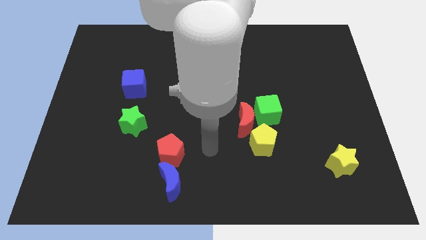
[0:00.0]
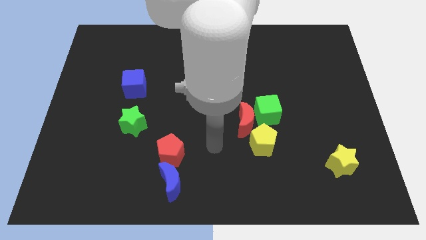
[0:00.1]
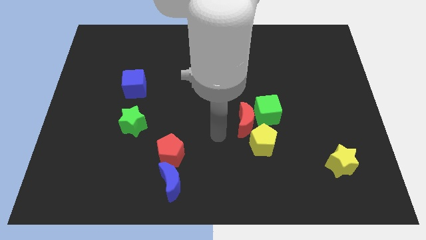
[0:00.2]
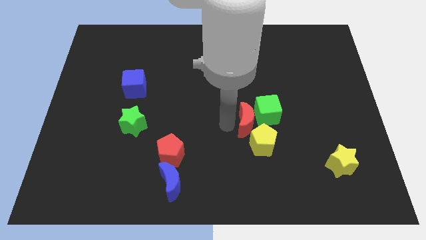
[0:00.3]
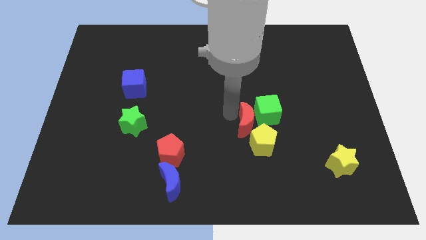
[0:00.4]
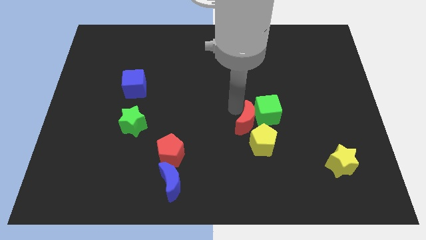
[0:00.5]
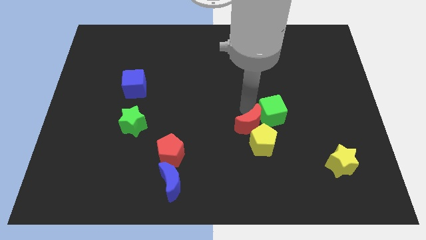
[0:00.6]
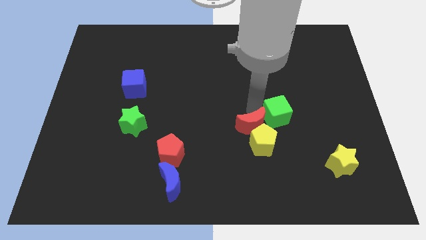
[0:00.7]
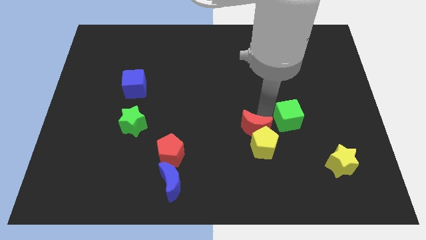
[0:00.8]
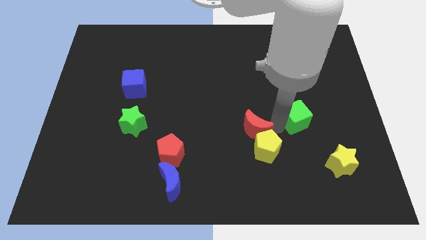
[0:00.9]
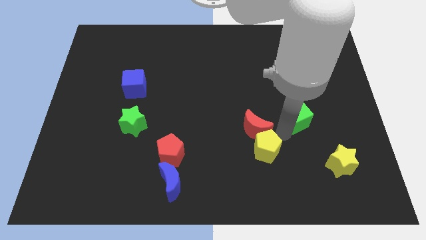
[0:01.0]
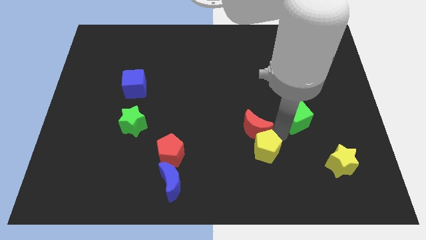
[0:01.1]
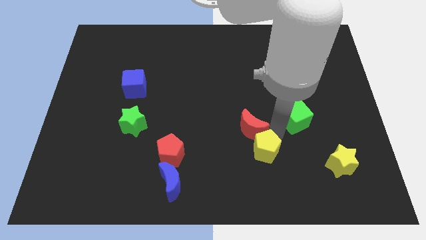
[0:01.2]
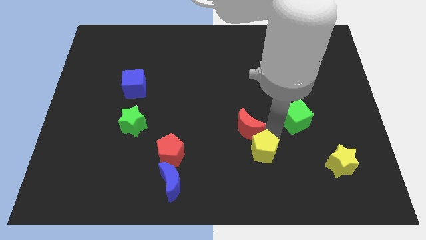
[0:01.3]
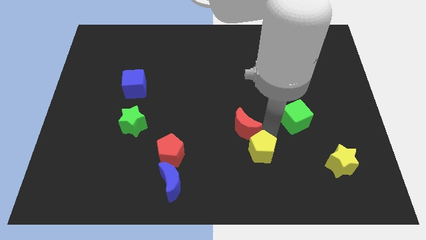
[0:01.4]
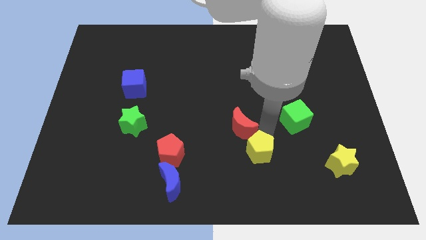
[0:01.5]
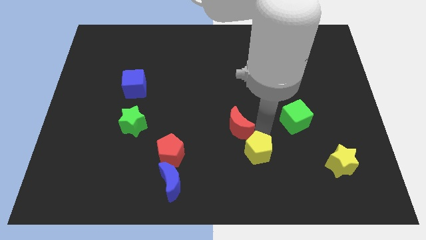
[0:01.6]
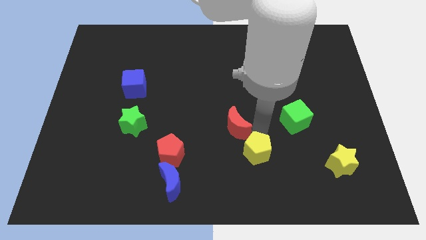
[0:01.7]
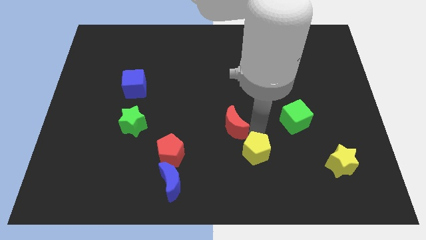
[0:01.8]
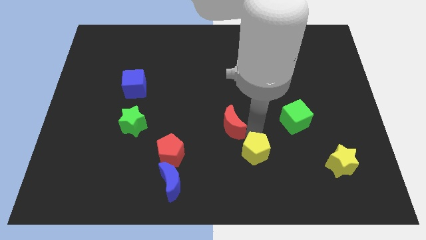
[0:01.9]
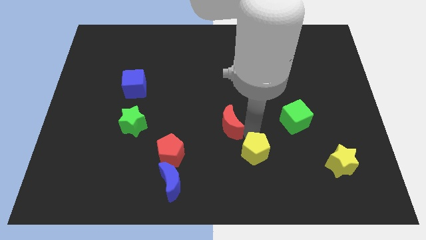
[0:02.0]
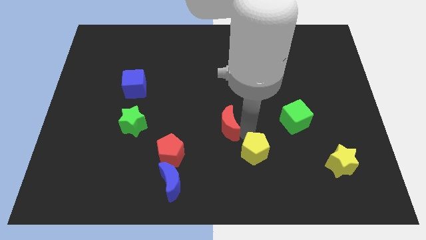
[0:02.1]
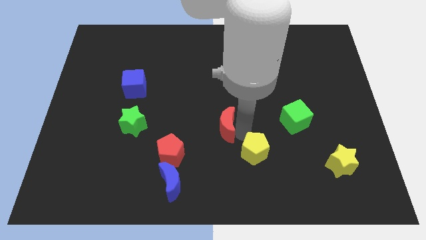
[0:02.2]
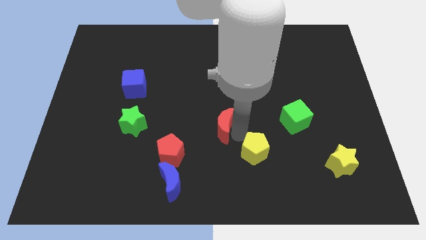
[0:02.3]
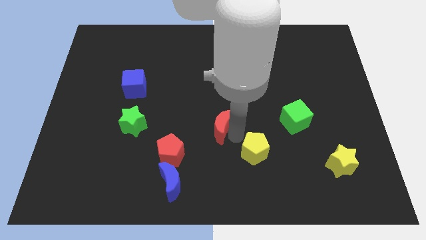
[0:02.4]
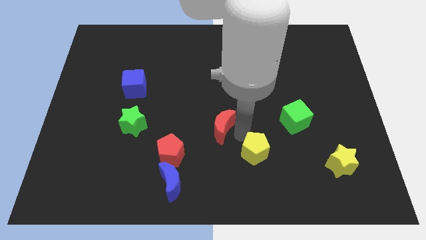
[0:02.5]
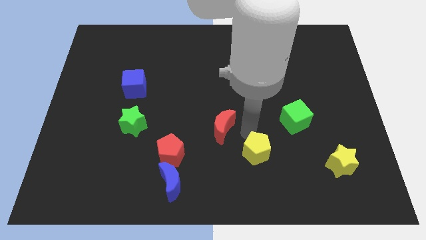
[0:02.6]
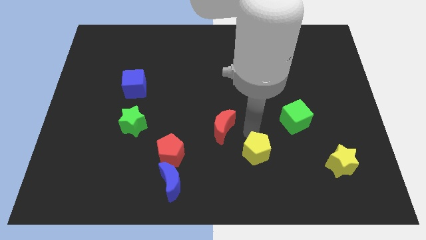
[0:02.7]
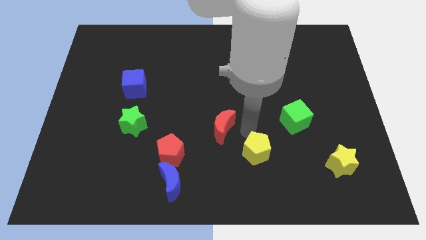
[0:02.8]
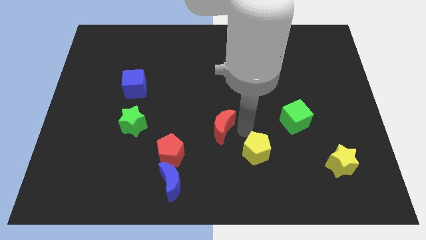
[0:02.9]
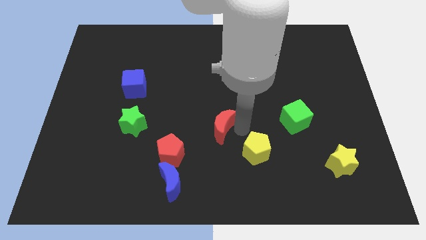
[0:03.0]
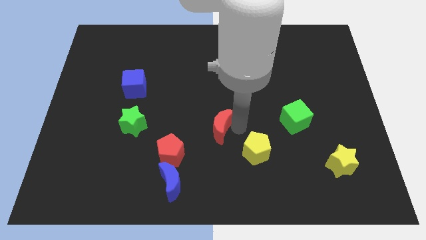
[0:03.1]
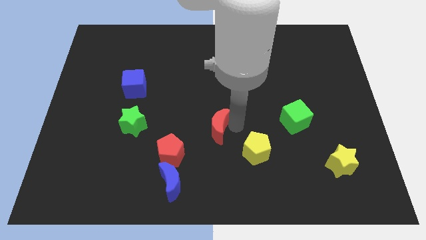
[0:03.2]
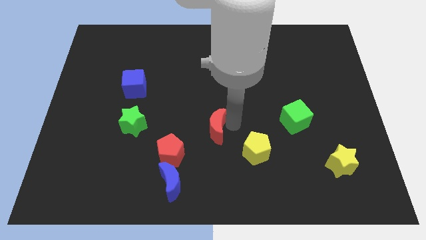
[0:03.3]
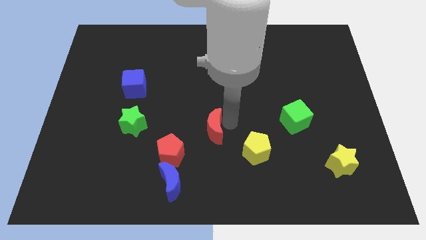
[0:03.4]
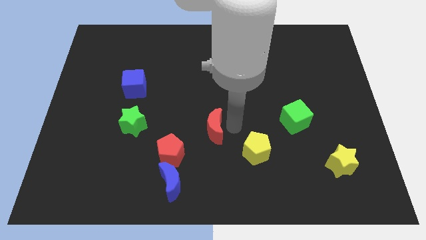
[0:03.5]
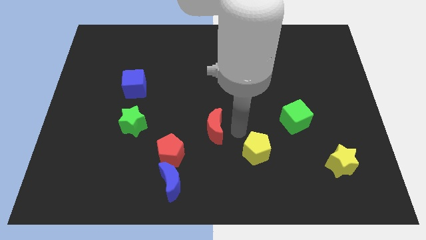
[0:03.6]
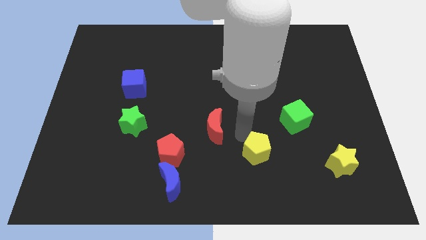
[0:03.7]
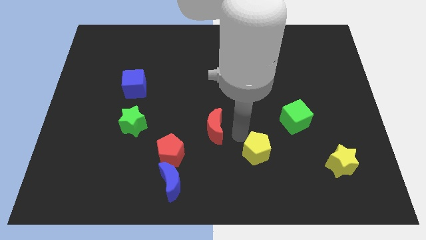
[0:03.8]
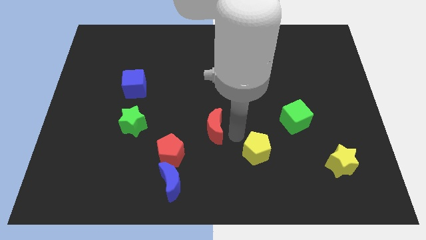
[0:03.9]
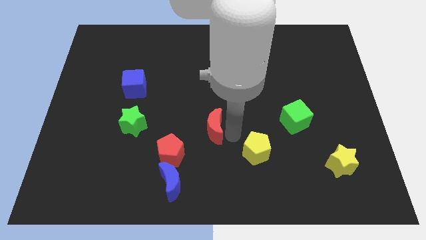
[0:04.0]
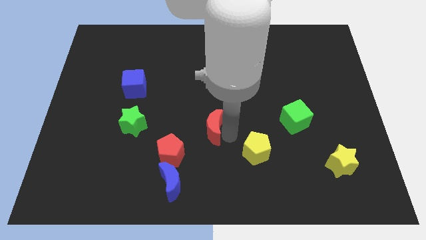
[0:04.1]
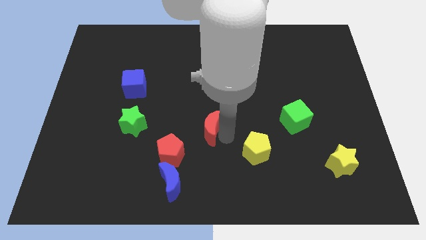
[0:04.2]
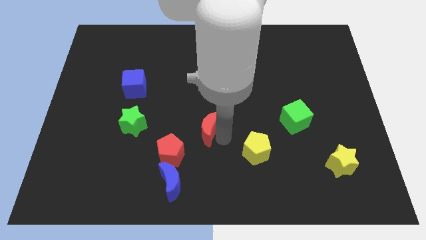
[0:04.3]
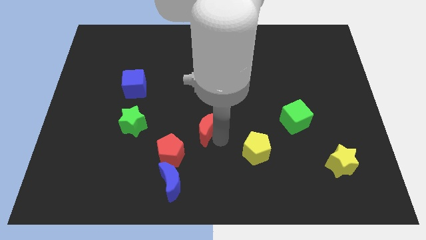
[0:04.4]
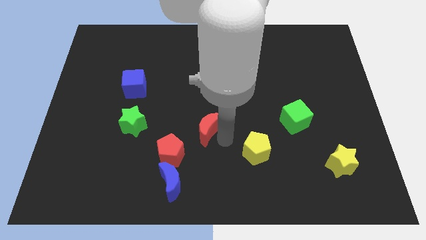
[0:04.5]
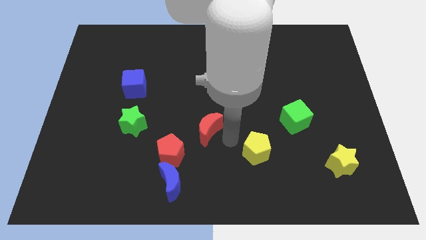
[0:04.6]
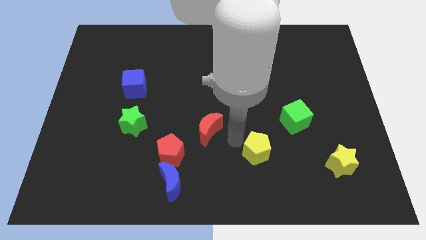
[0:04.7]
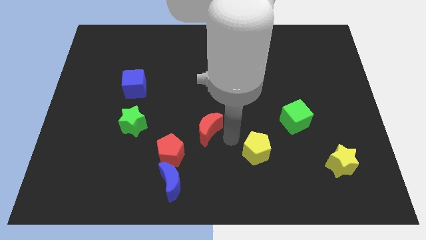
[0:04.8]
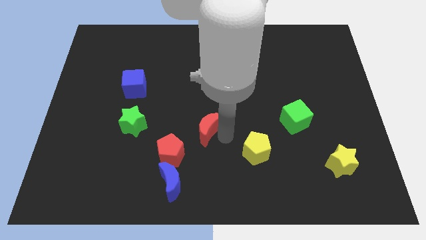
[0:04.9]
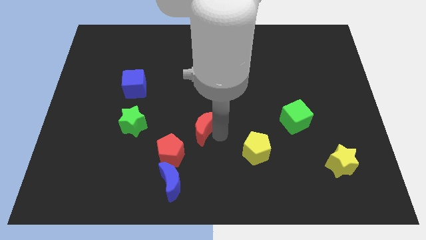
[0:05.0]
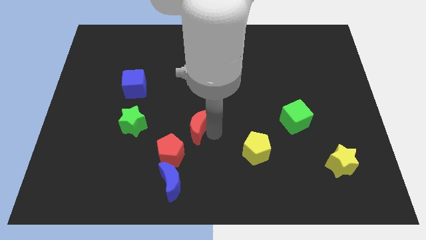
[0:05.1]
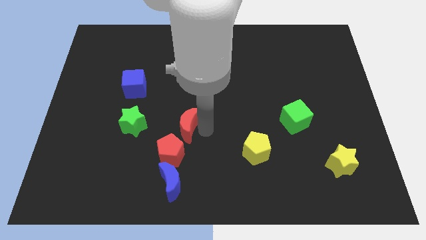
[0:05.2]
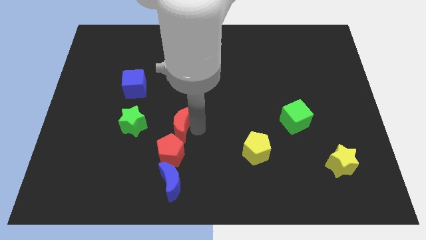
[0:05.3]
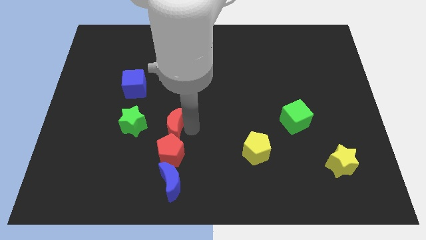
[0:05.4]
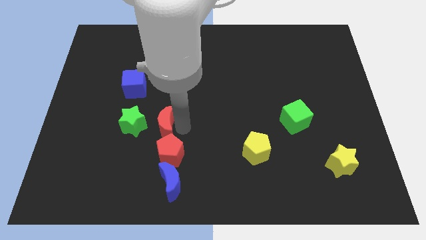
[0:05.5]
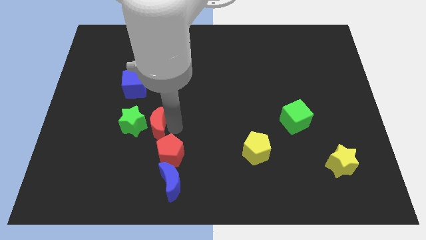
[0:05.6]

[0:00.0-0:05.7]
push the red moon next to the green star

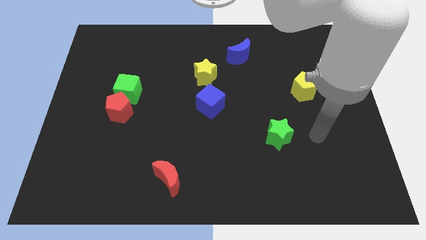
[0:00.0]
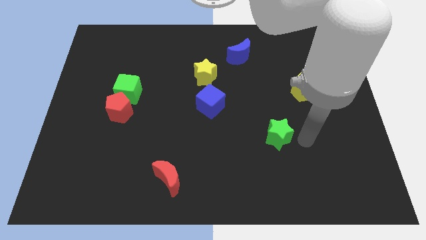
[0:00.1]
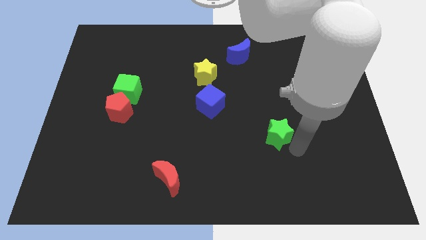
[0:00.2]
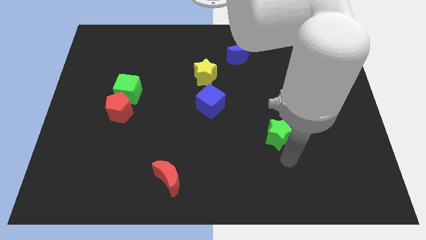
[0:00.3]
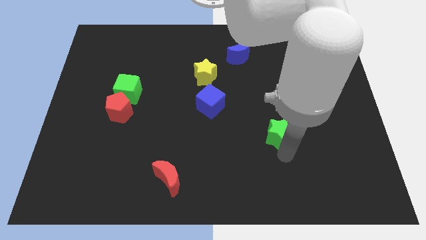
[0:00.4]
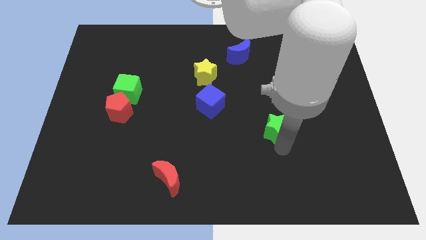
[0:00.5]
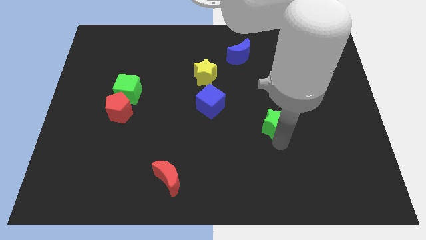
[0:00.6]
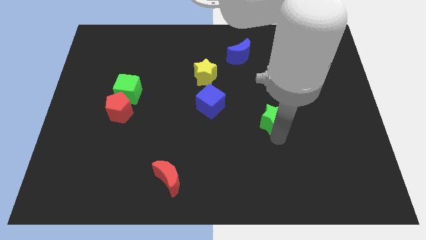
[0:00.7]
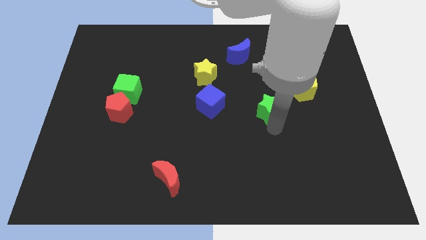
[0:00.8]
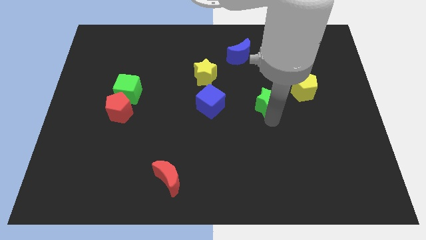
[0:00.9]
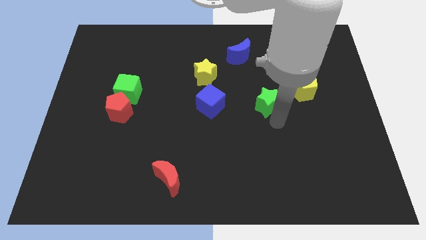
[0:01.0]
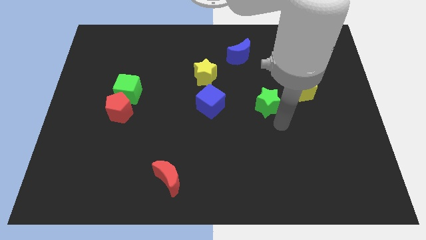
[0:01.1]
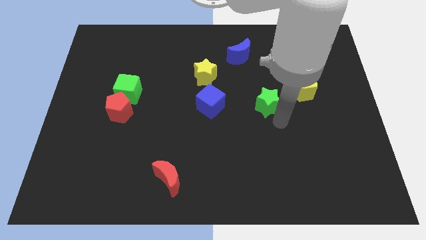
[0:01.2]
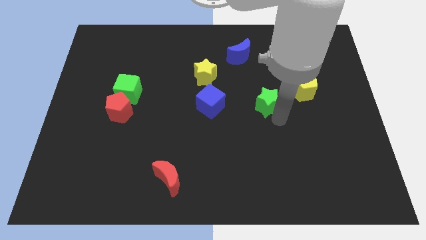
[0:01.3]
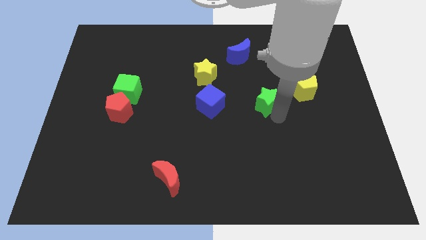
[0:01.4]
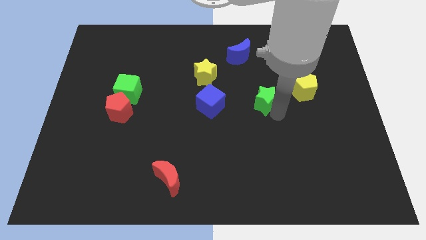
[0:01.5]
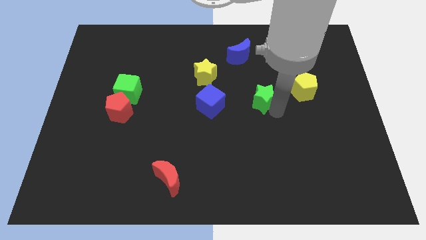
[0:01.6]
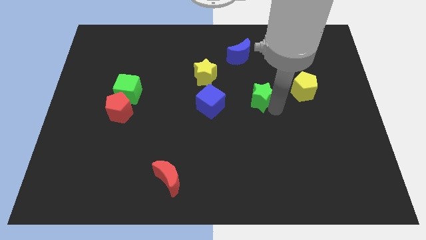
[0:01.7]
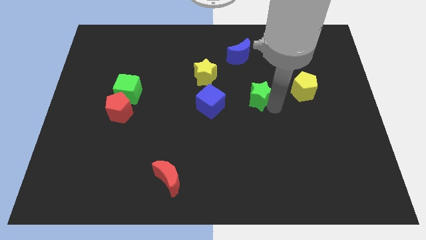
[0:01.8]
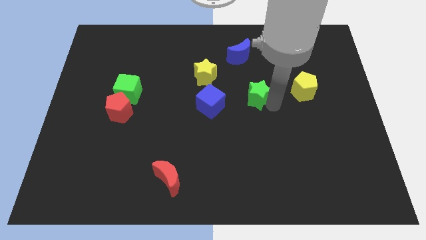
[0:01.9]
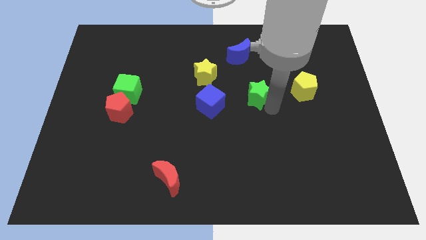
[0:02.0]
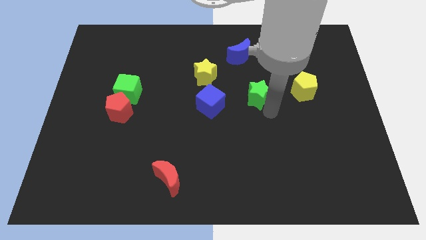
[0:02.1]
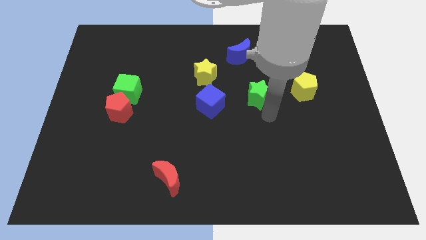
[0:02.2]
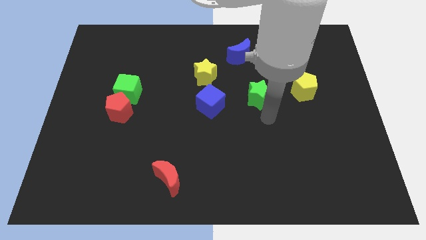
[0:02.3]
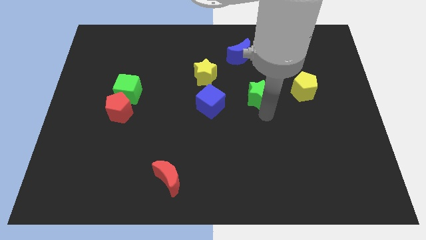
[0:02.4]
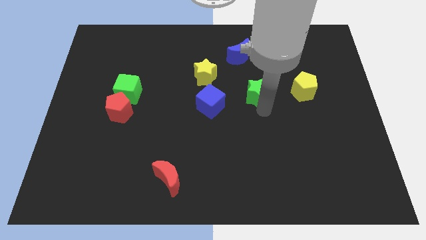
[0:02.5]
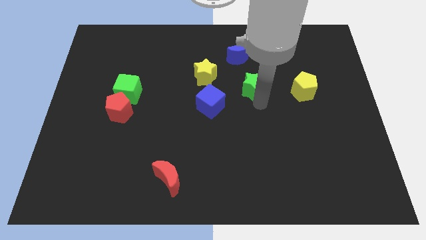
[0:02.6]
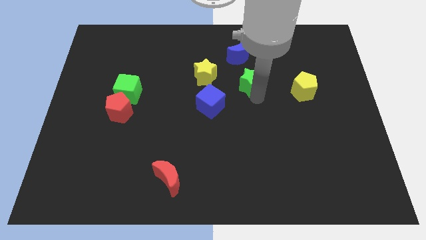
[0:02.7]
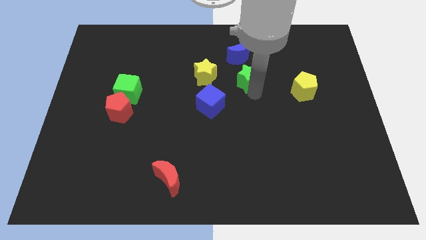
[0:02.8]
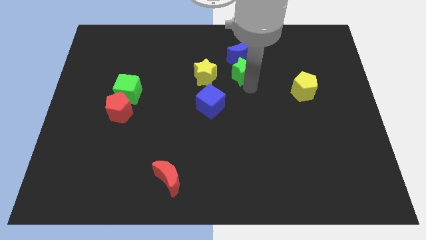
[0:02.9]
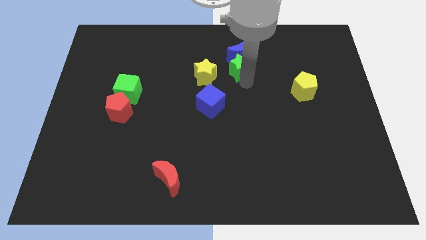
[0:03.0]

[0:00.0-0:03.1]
push the green star towards the blue moon
